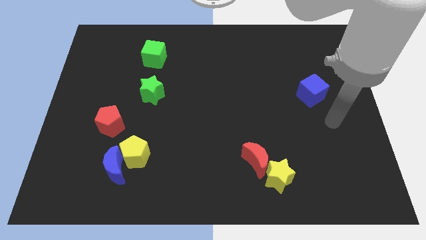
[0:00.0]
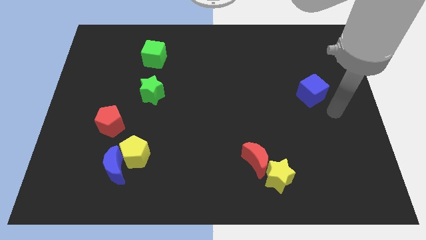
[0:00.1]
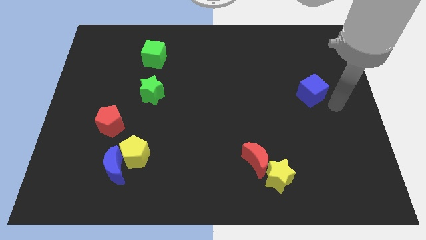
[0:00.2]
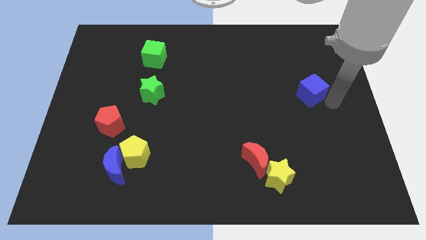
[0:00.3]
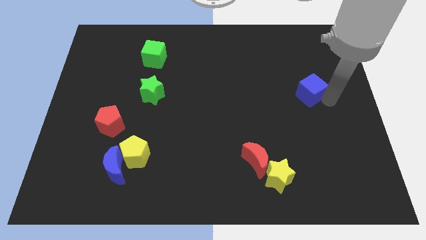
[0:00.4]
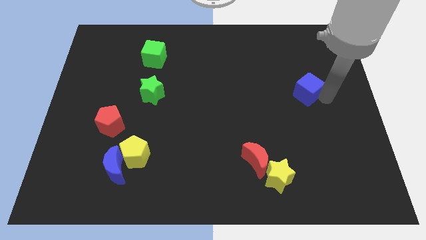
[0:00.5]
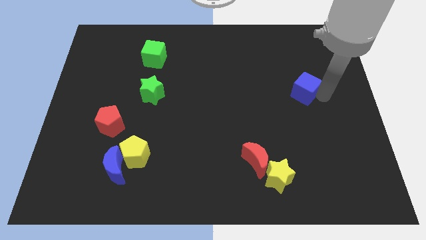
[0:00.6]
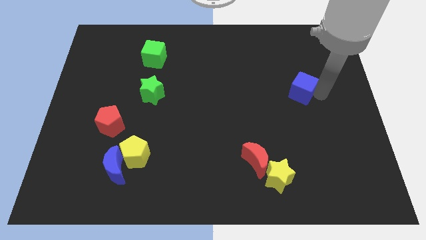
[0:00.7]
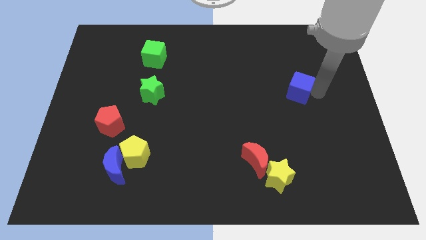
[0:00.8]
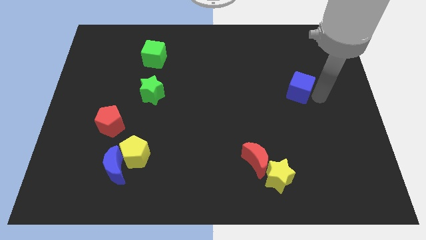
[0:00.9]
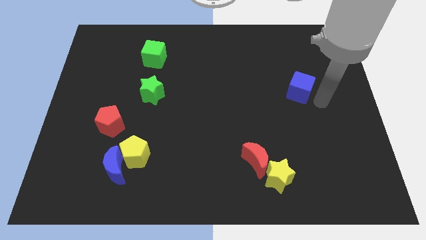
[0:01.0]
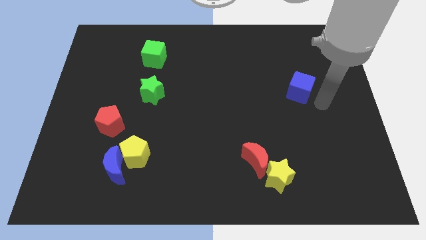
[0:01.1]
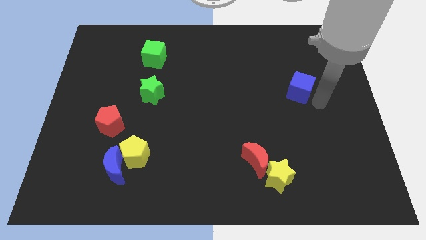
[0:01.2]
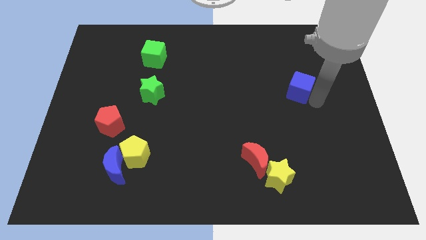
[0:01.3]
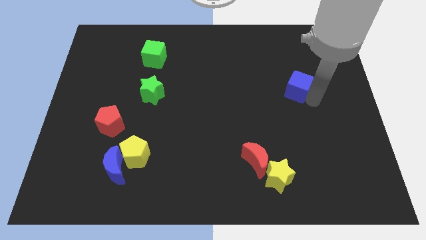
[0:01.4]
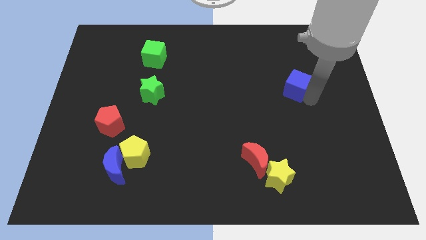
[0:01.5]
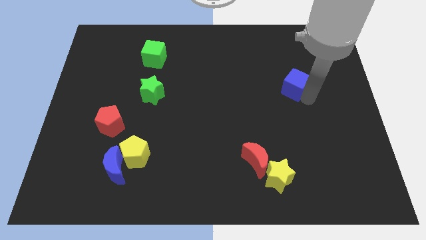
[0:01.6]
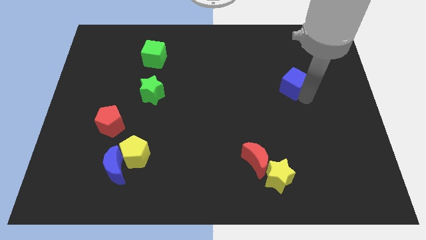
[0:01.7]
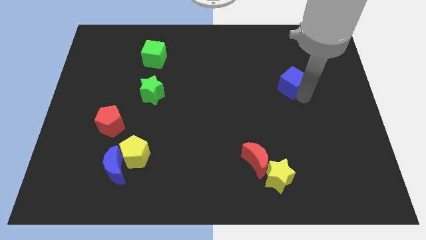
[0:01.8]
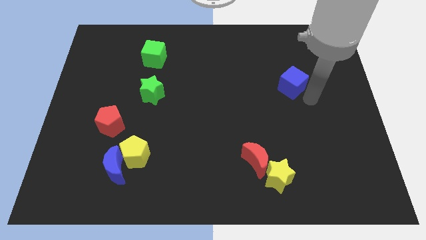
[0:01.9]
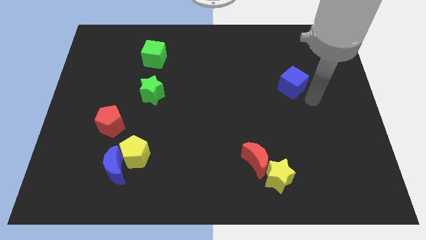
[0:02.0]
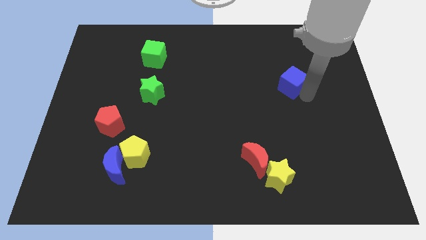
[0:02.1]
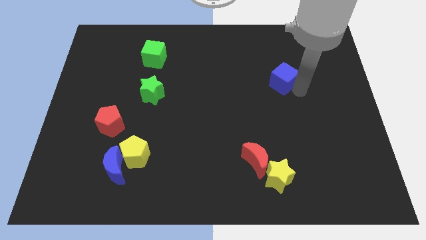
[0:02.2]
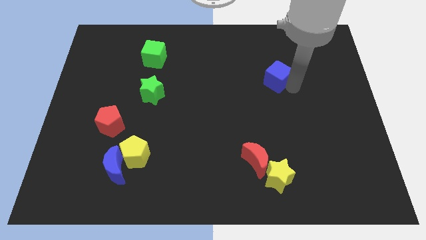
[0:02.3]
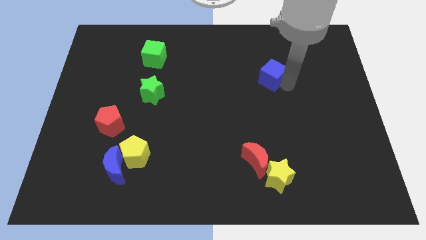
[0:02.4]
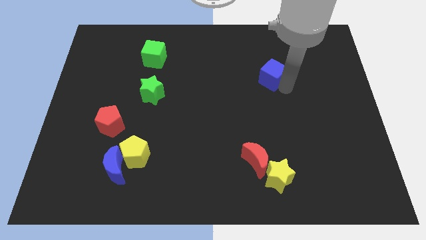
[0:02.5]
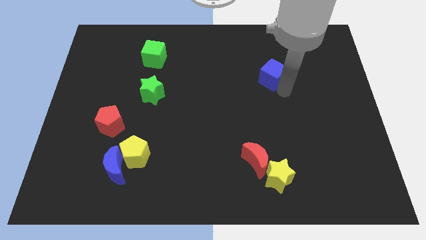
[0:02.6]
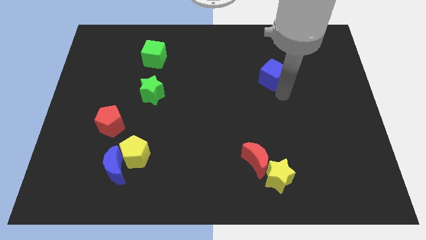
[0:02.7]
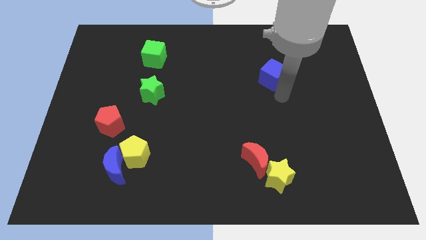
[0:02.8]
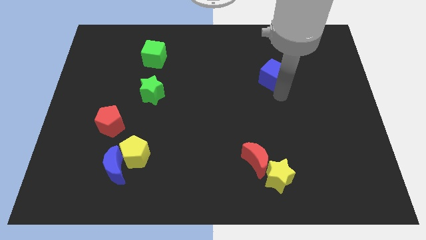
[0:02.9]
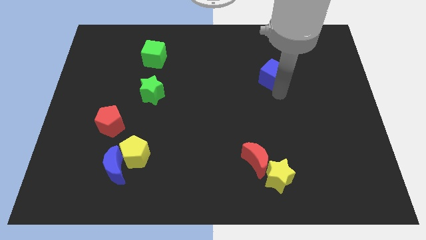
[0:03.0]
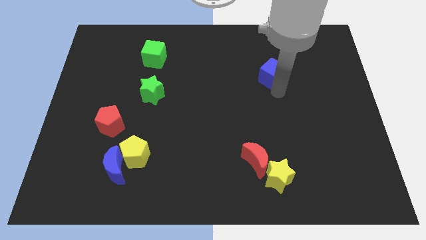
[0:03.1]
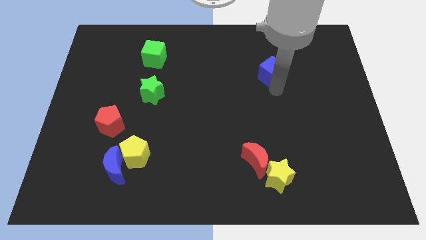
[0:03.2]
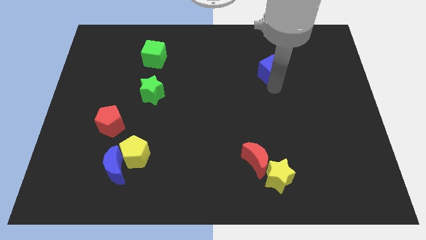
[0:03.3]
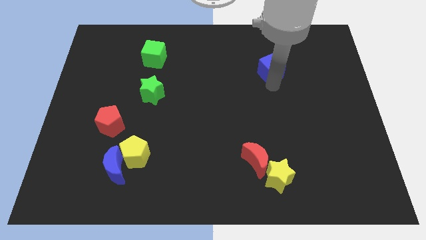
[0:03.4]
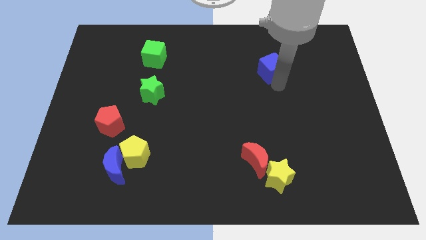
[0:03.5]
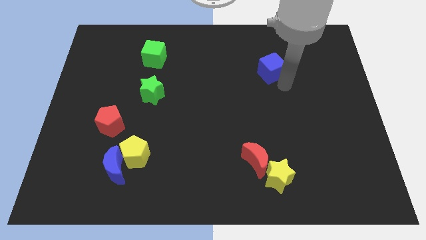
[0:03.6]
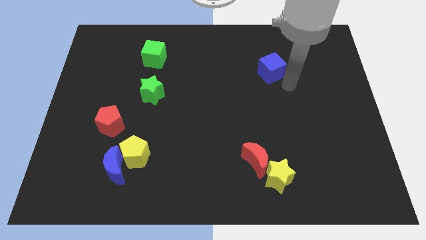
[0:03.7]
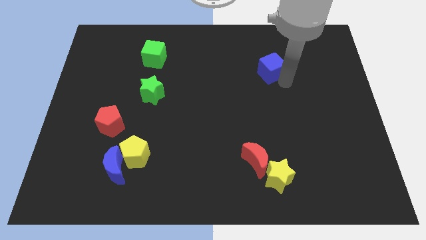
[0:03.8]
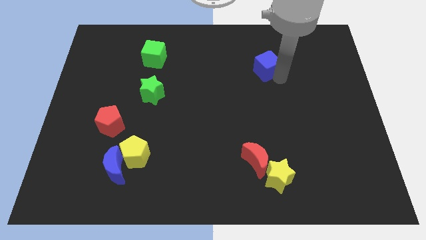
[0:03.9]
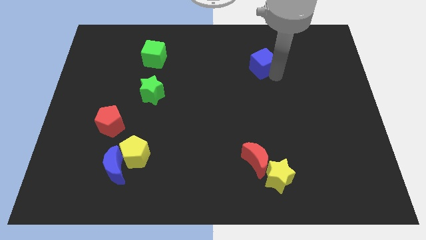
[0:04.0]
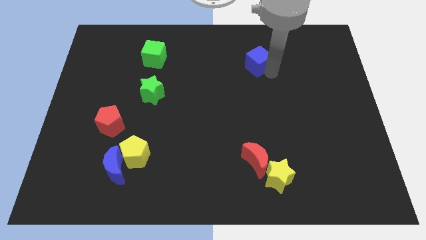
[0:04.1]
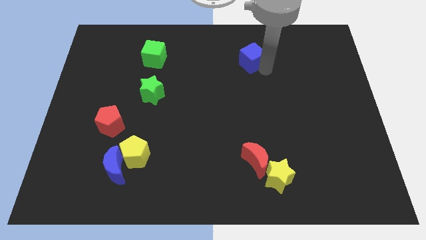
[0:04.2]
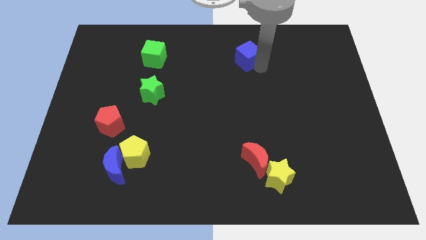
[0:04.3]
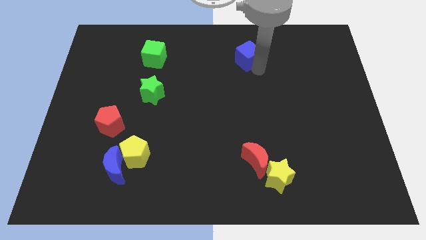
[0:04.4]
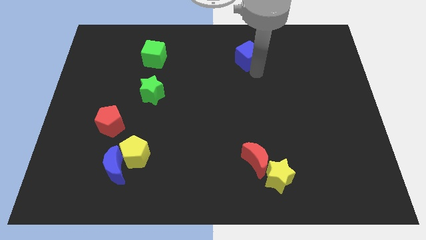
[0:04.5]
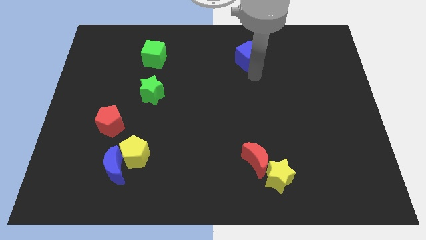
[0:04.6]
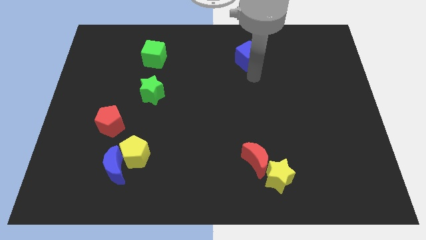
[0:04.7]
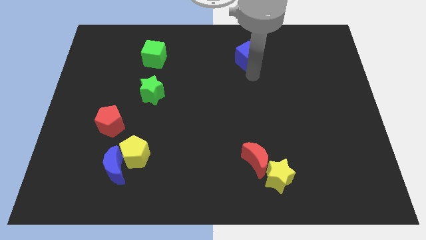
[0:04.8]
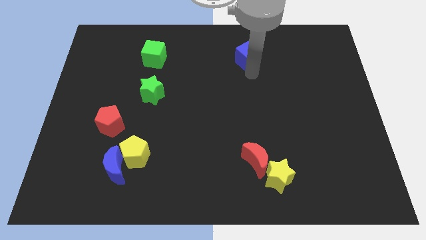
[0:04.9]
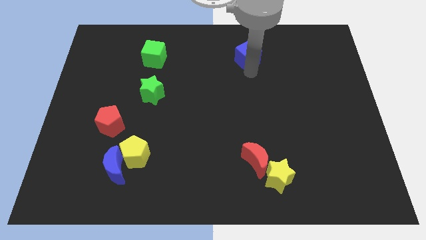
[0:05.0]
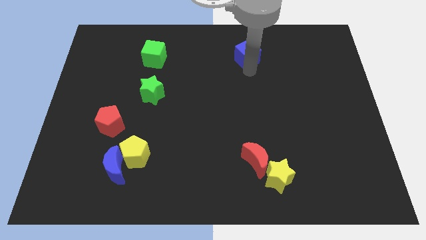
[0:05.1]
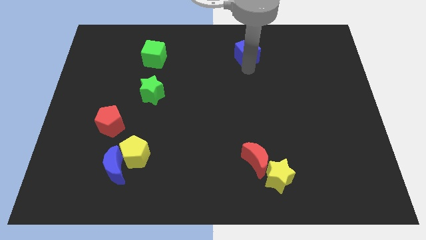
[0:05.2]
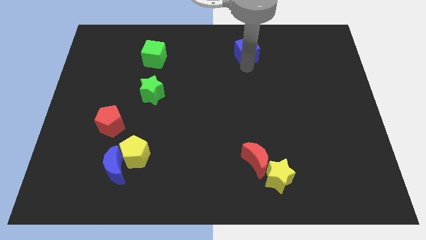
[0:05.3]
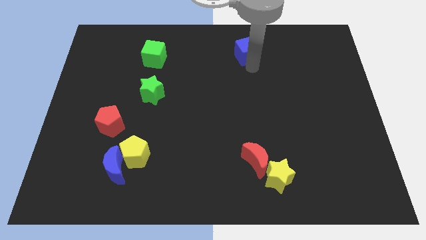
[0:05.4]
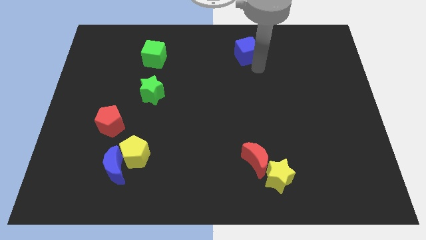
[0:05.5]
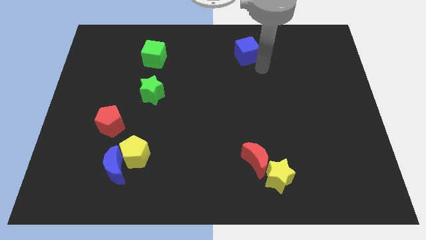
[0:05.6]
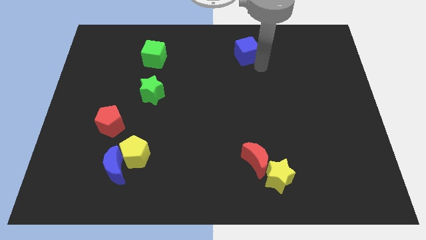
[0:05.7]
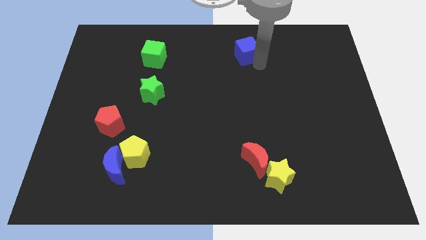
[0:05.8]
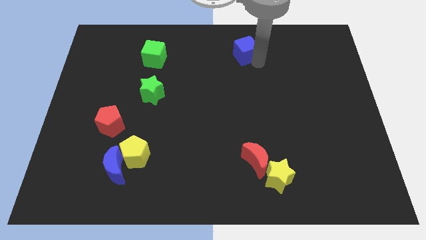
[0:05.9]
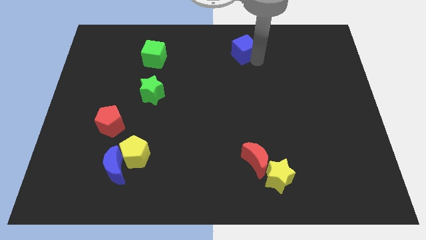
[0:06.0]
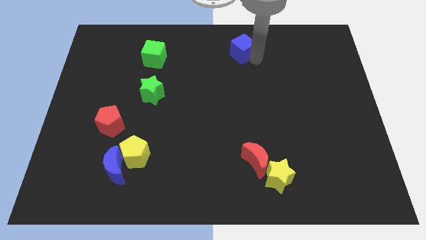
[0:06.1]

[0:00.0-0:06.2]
move the blue cube to the top
